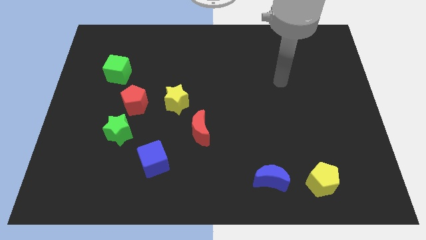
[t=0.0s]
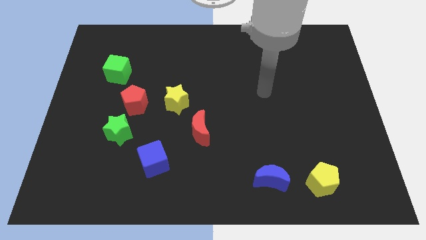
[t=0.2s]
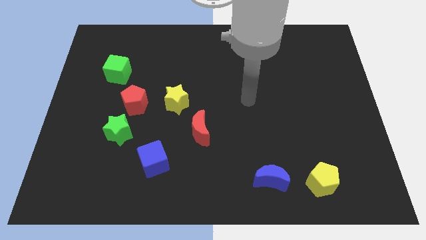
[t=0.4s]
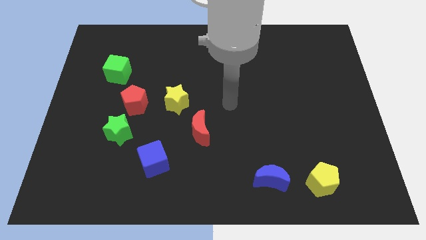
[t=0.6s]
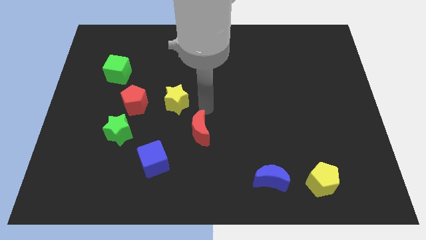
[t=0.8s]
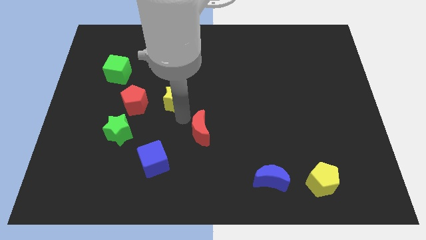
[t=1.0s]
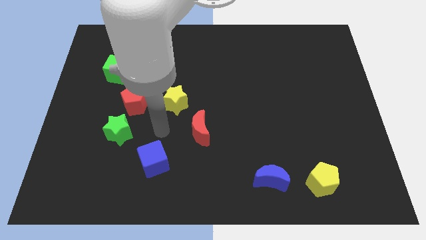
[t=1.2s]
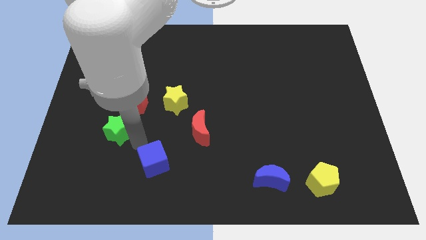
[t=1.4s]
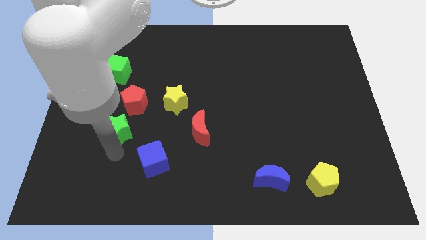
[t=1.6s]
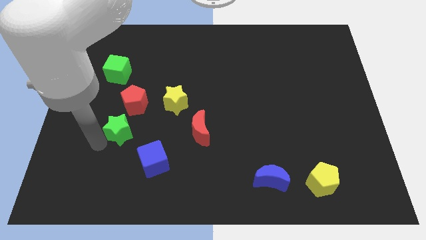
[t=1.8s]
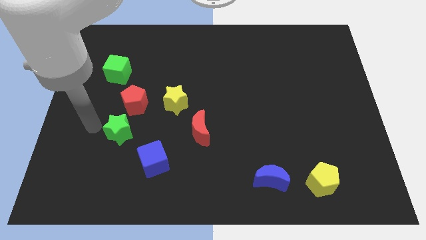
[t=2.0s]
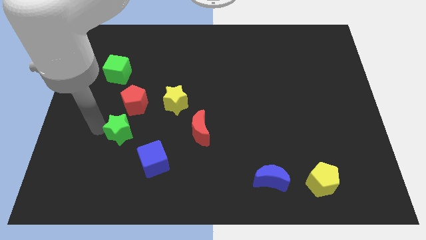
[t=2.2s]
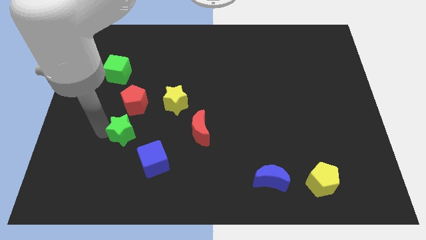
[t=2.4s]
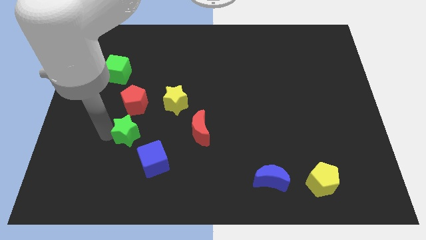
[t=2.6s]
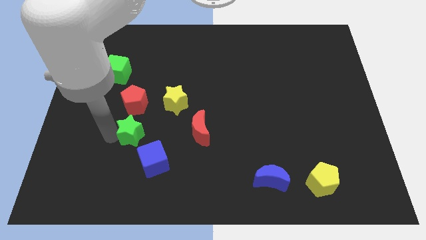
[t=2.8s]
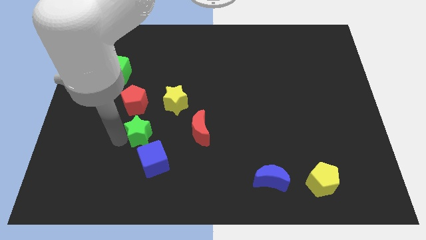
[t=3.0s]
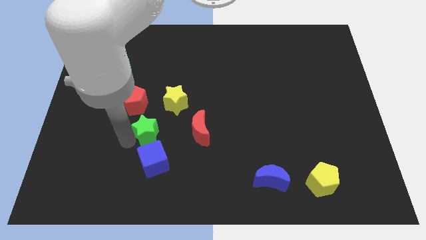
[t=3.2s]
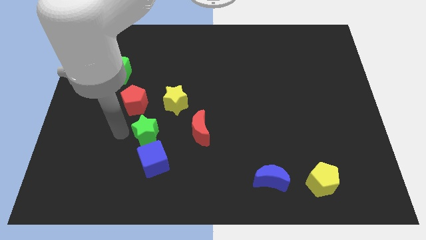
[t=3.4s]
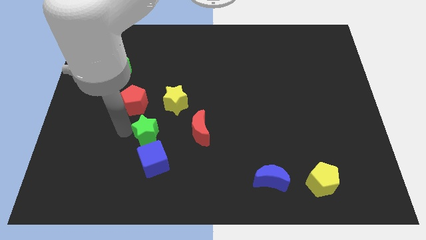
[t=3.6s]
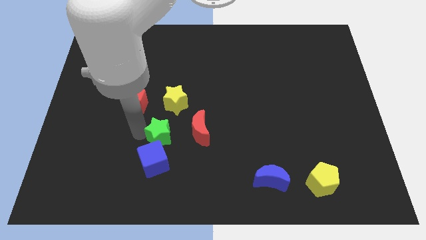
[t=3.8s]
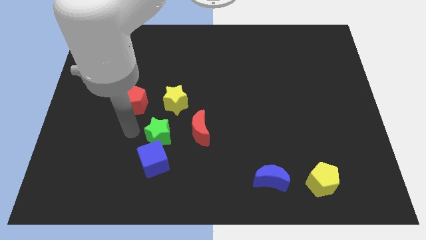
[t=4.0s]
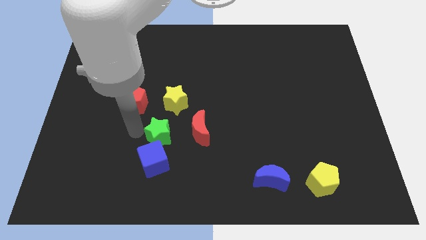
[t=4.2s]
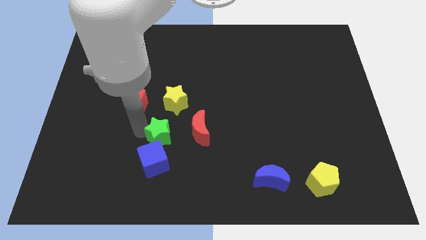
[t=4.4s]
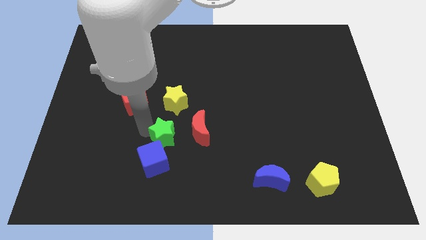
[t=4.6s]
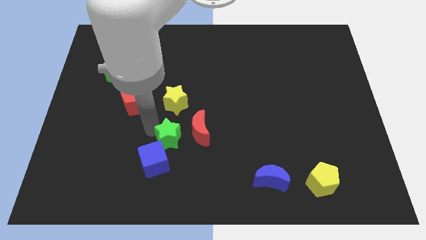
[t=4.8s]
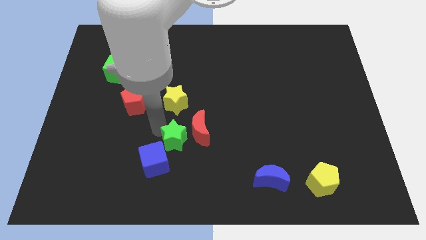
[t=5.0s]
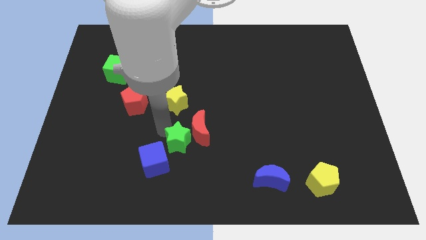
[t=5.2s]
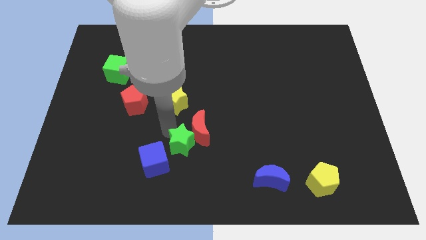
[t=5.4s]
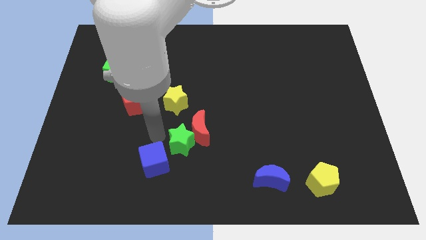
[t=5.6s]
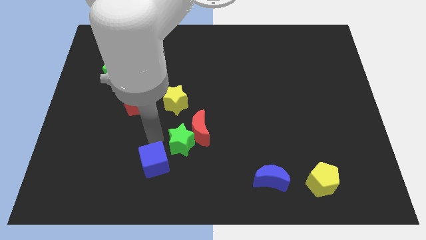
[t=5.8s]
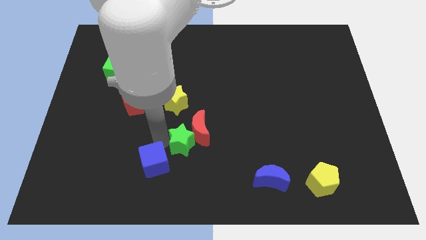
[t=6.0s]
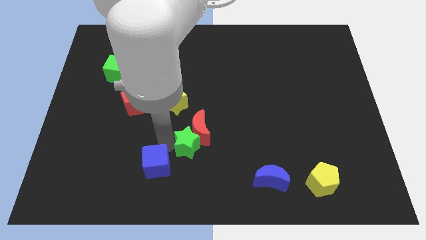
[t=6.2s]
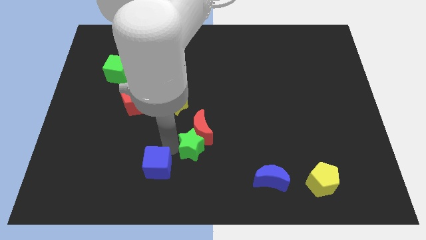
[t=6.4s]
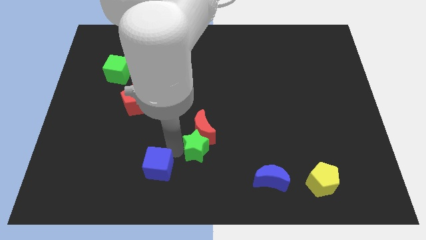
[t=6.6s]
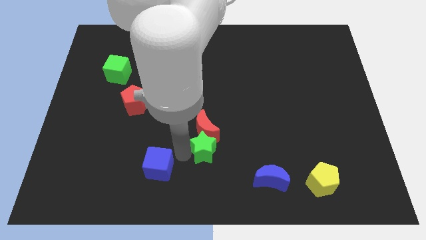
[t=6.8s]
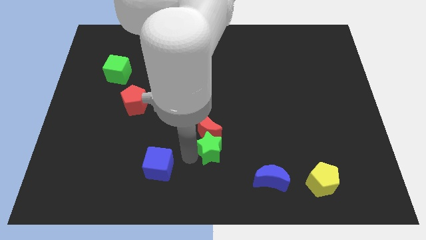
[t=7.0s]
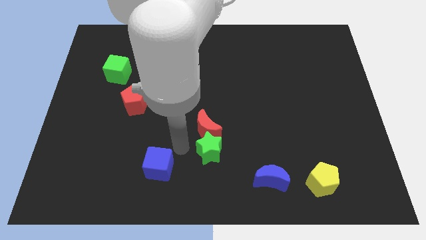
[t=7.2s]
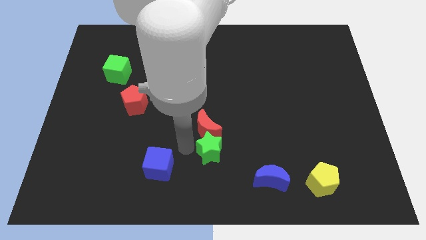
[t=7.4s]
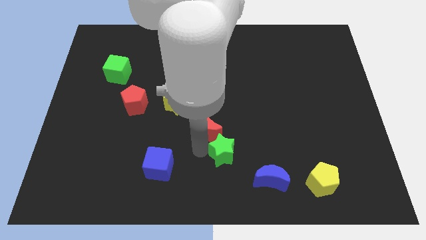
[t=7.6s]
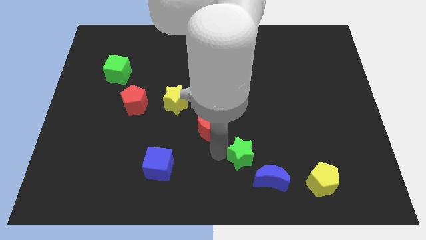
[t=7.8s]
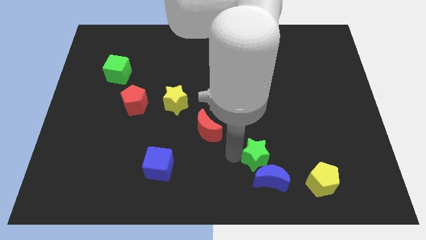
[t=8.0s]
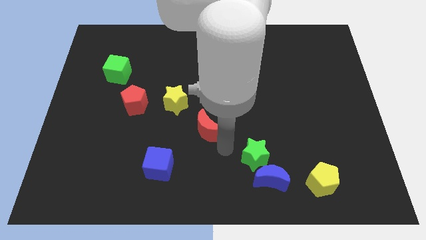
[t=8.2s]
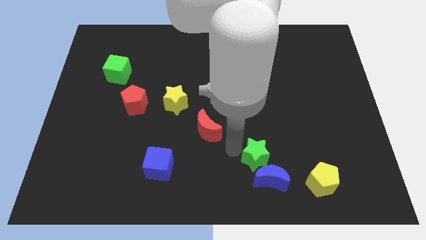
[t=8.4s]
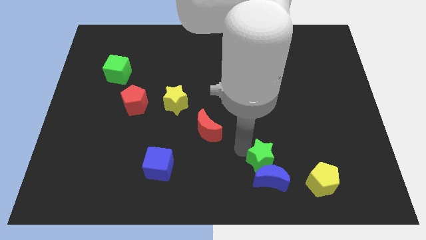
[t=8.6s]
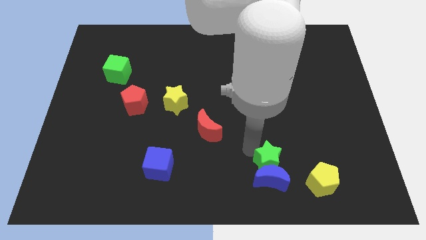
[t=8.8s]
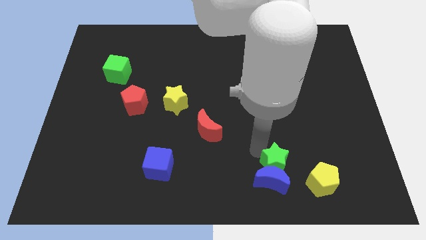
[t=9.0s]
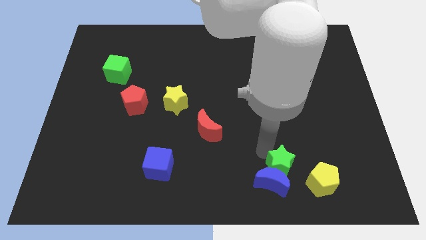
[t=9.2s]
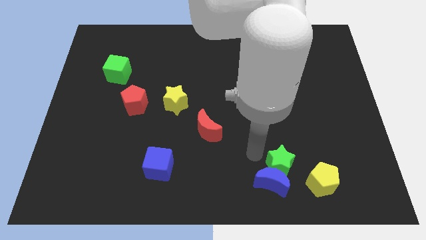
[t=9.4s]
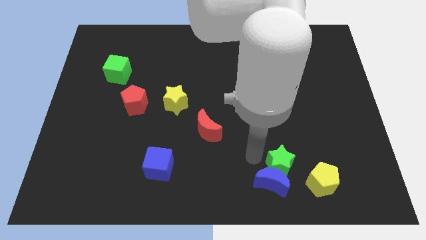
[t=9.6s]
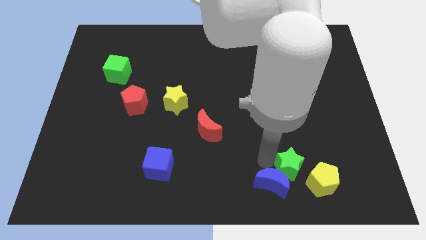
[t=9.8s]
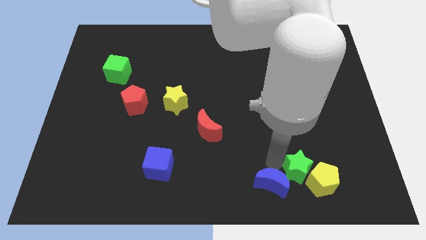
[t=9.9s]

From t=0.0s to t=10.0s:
put the green star close to the yellow pentagon

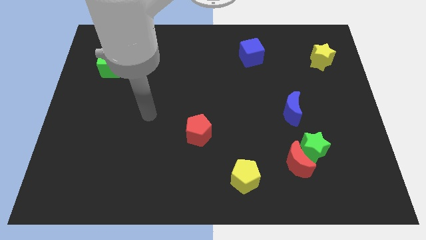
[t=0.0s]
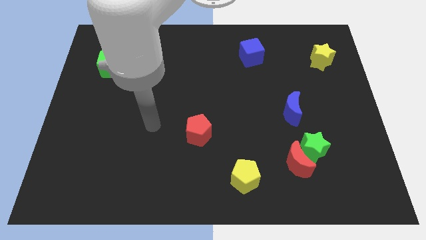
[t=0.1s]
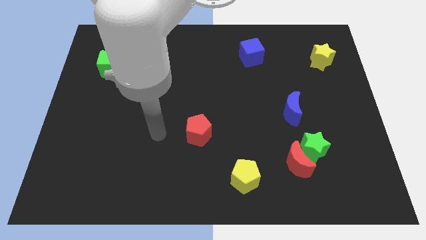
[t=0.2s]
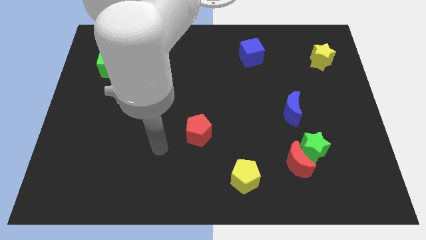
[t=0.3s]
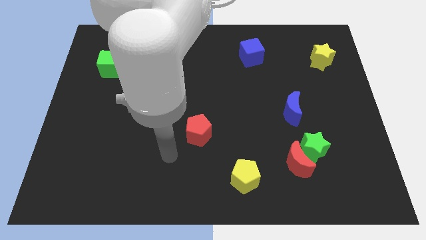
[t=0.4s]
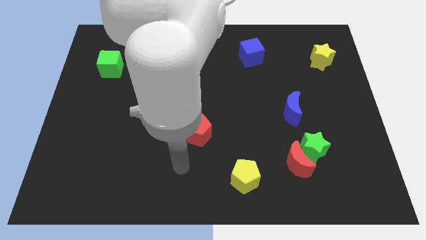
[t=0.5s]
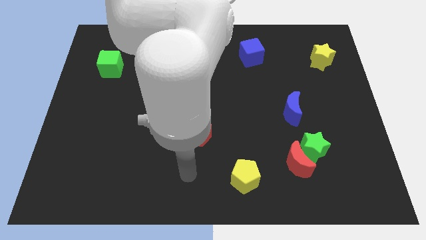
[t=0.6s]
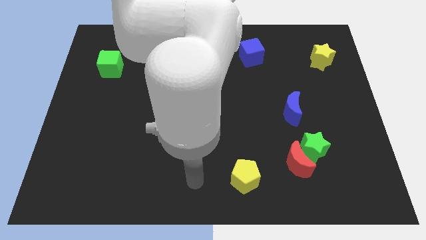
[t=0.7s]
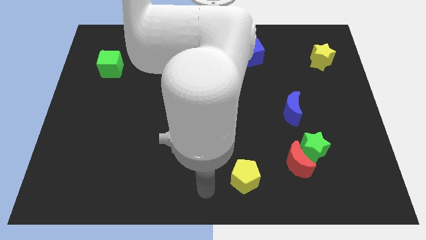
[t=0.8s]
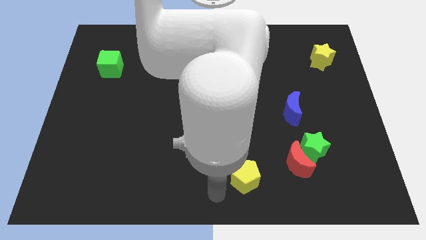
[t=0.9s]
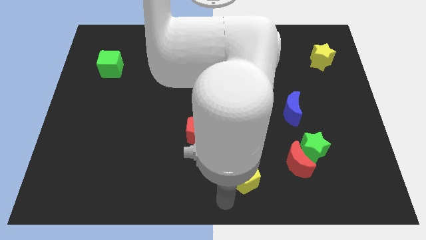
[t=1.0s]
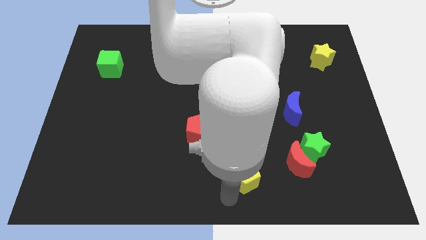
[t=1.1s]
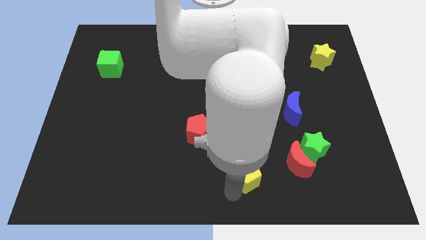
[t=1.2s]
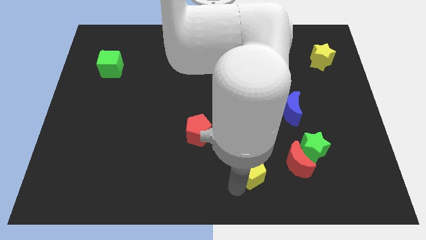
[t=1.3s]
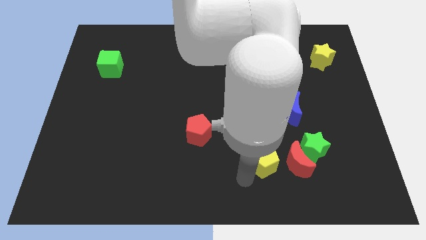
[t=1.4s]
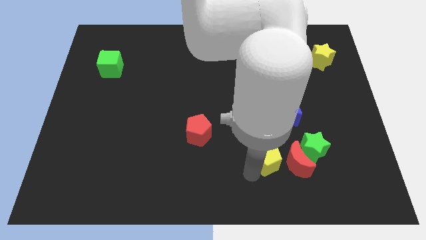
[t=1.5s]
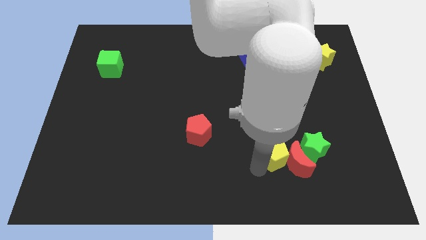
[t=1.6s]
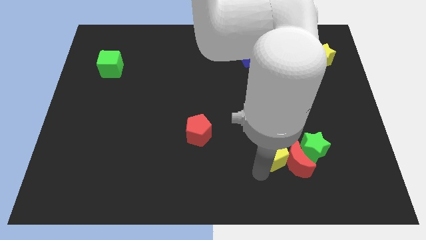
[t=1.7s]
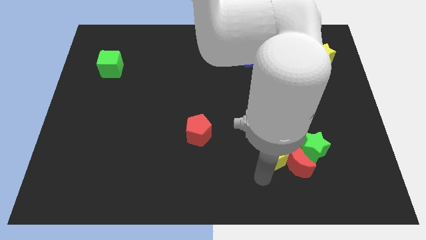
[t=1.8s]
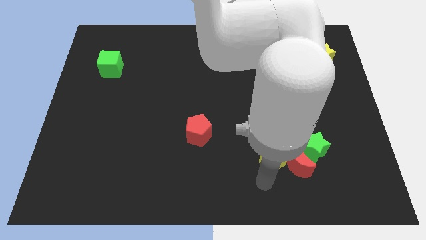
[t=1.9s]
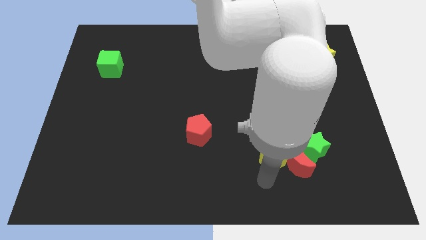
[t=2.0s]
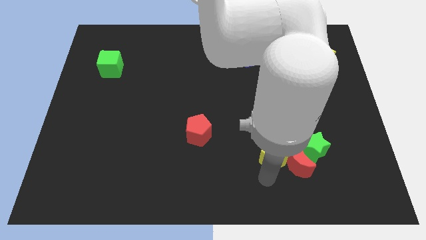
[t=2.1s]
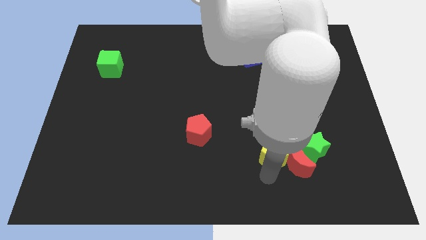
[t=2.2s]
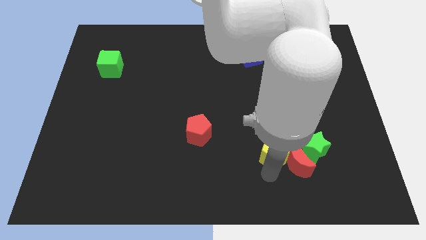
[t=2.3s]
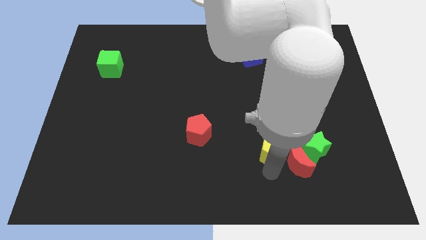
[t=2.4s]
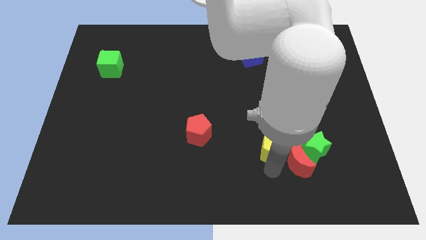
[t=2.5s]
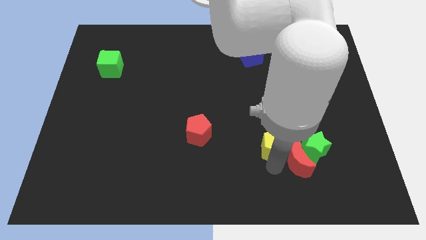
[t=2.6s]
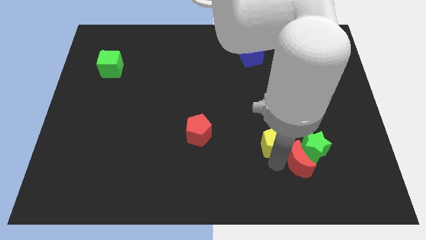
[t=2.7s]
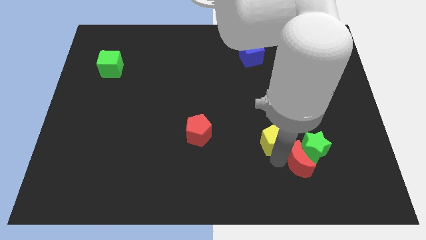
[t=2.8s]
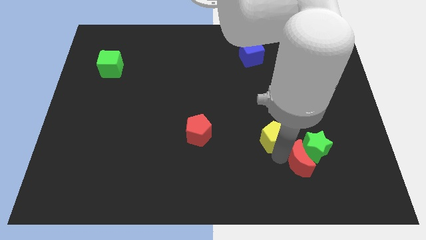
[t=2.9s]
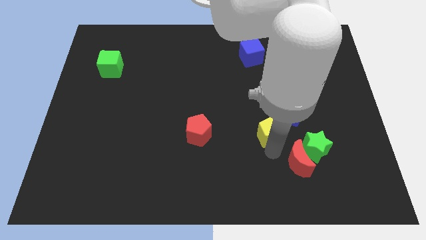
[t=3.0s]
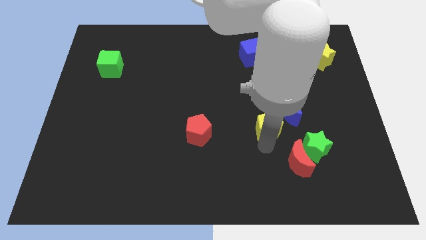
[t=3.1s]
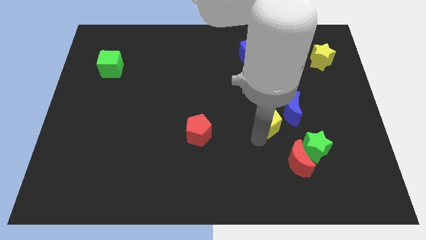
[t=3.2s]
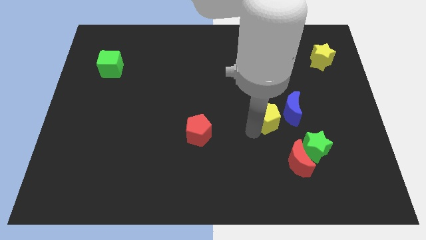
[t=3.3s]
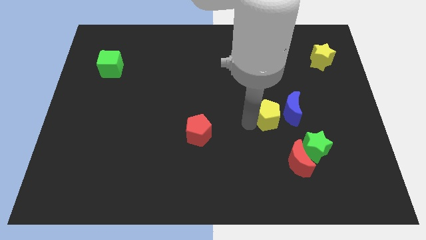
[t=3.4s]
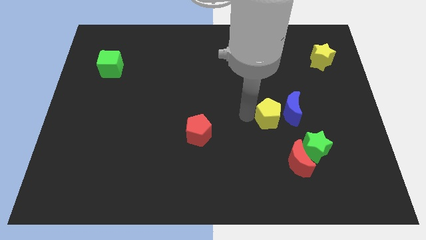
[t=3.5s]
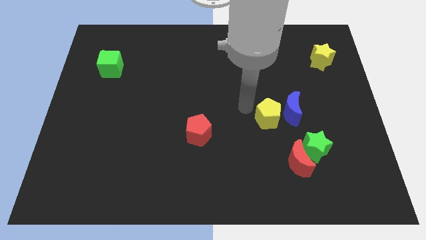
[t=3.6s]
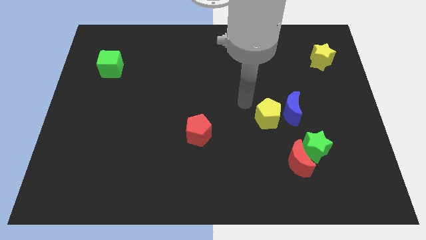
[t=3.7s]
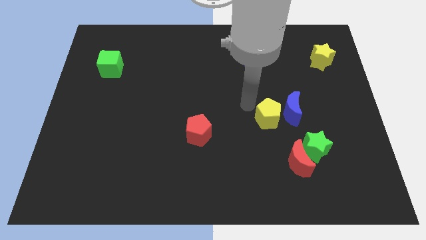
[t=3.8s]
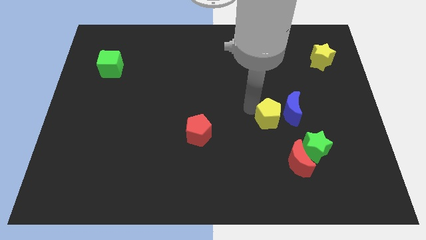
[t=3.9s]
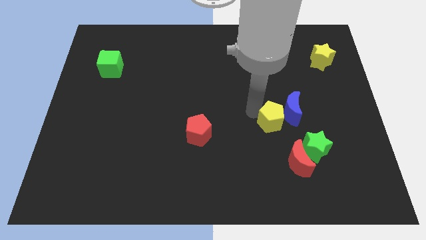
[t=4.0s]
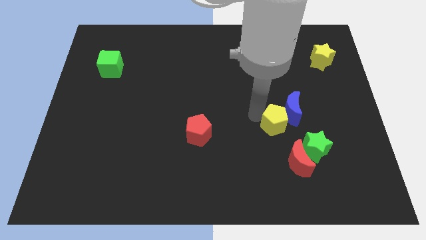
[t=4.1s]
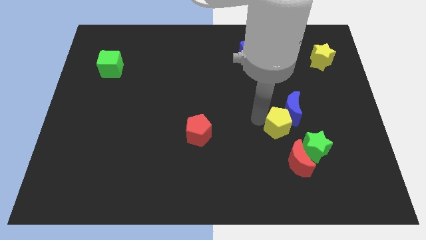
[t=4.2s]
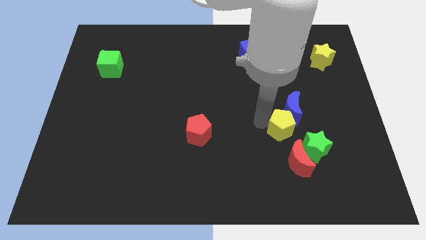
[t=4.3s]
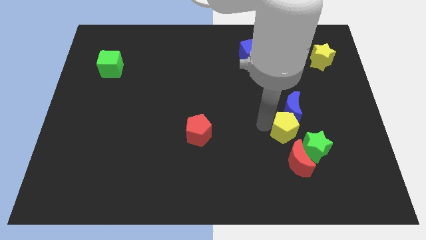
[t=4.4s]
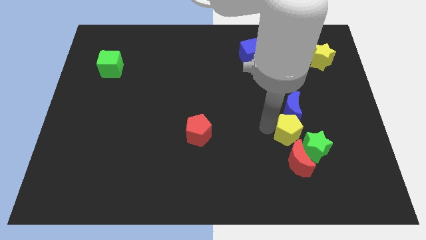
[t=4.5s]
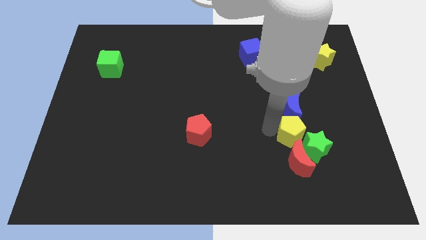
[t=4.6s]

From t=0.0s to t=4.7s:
move the yellow pentagon next to the green star
